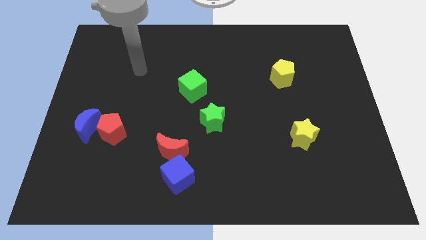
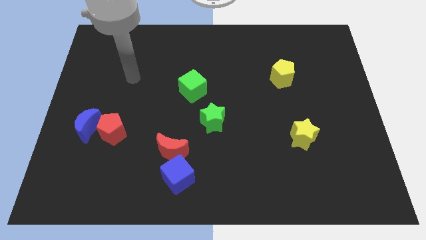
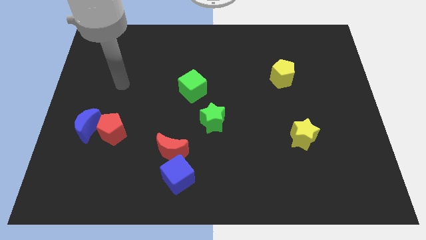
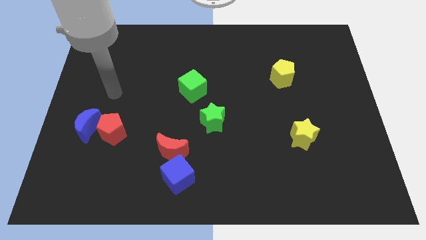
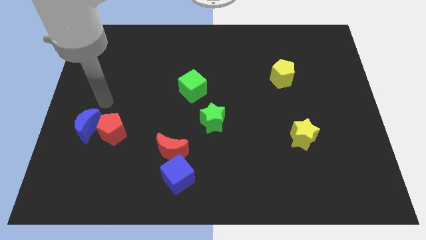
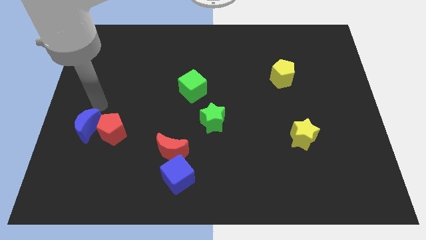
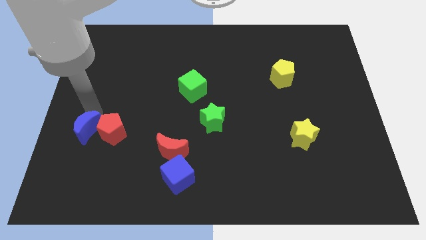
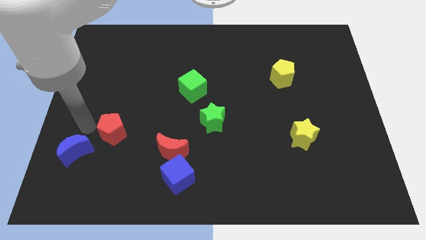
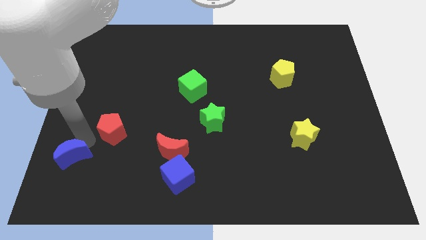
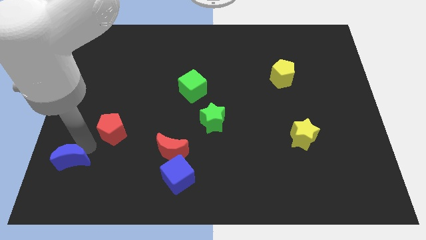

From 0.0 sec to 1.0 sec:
pull the red pentagon apart from the blue moon

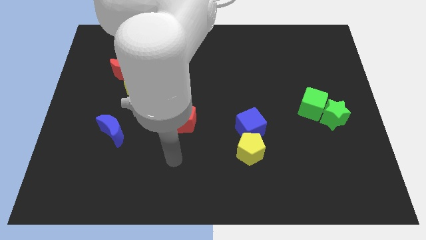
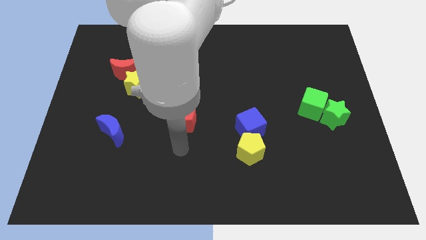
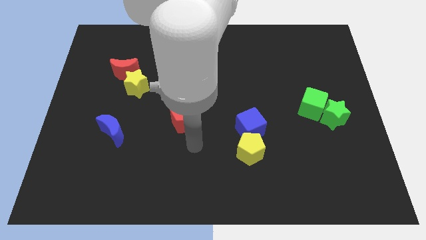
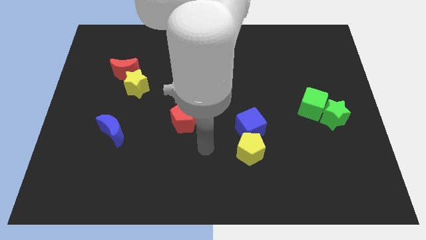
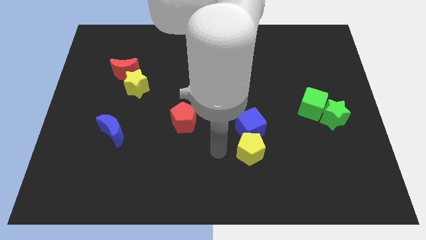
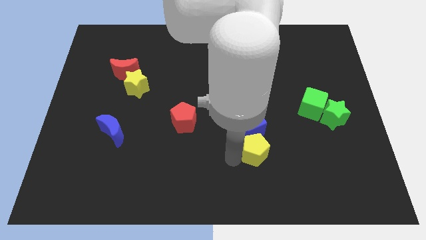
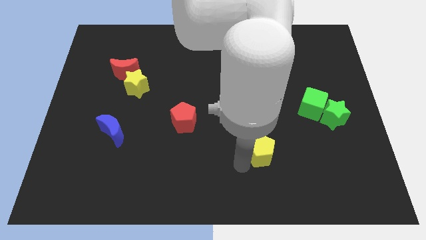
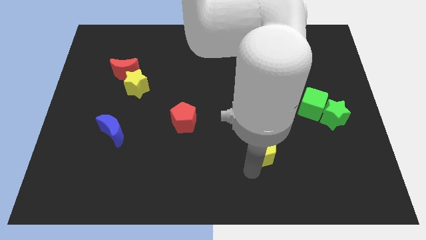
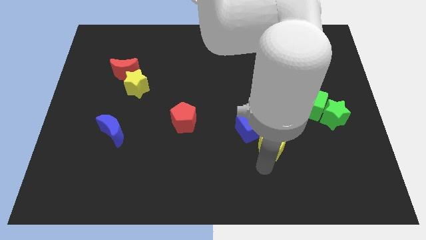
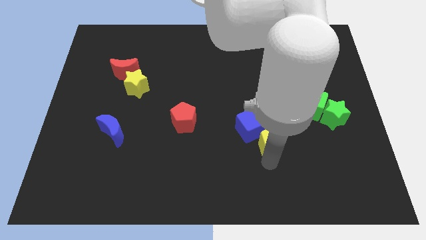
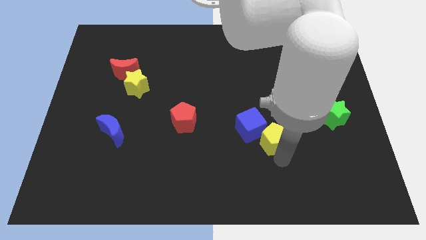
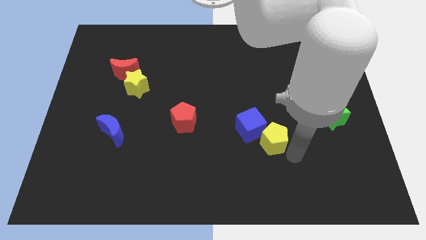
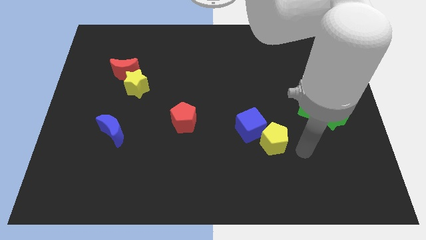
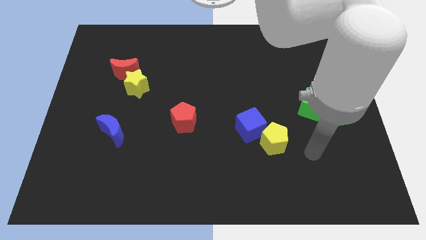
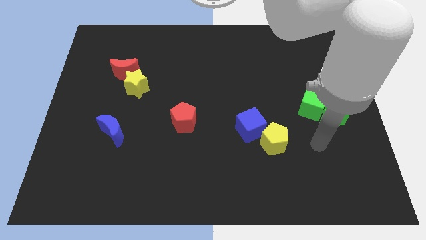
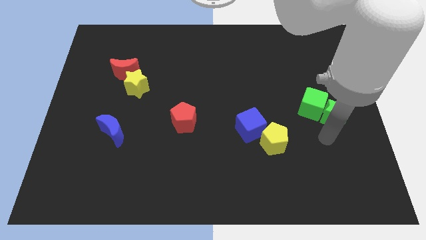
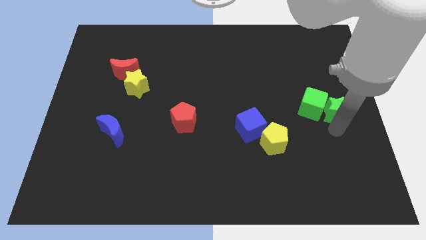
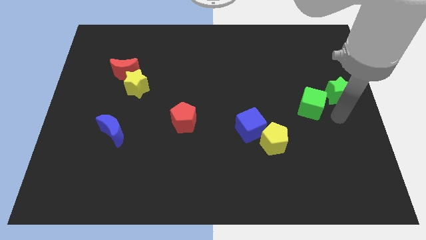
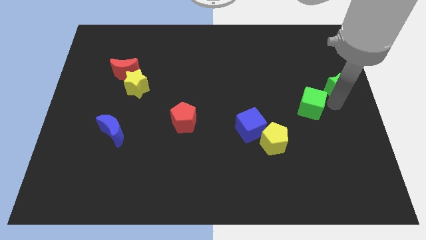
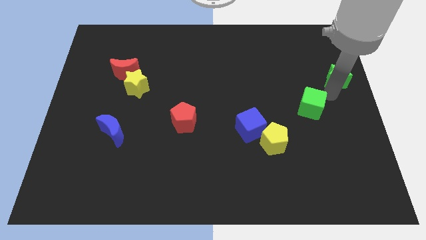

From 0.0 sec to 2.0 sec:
pull the green cube apart from the green star

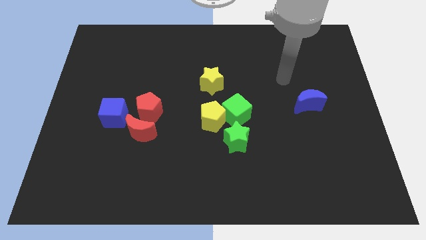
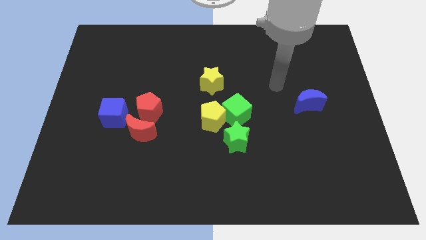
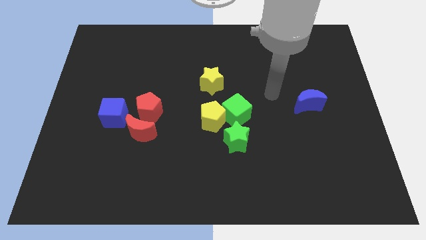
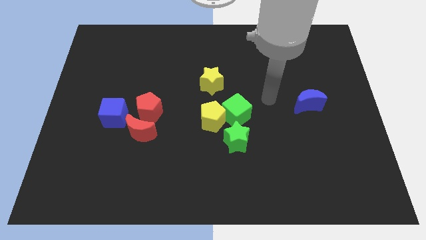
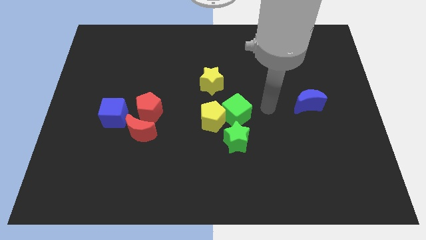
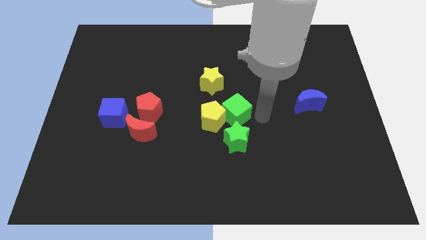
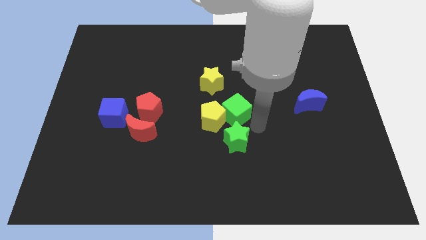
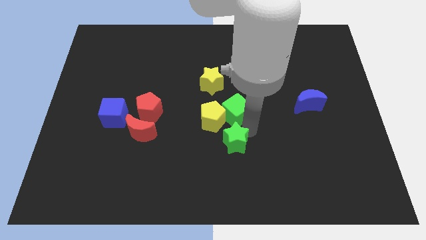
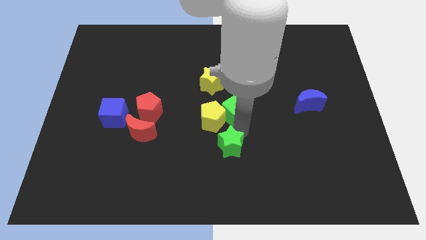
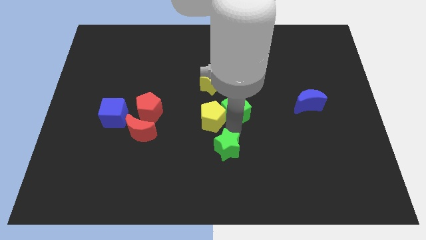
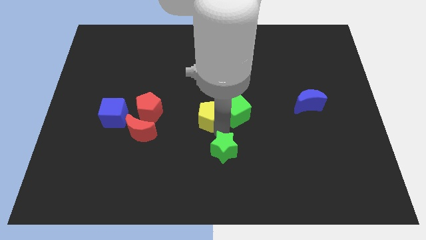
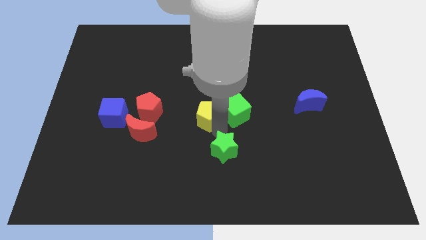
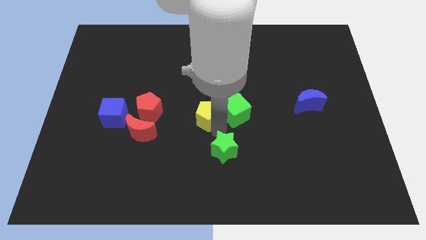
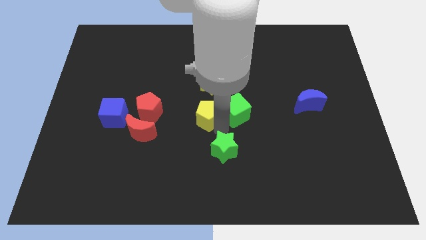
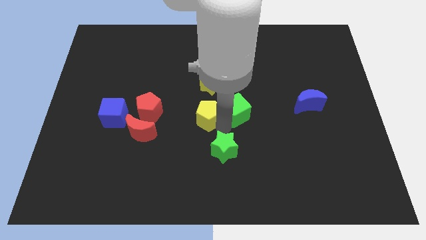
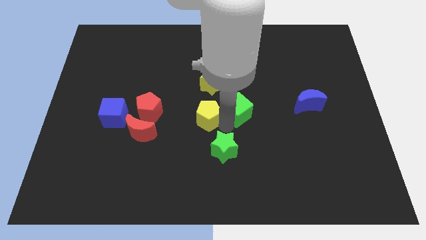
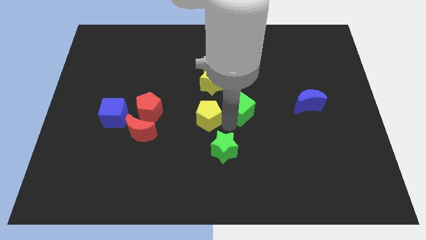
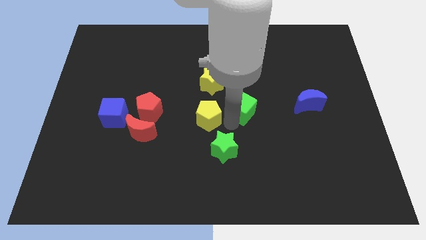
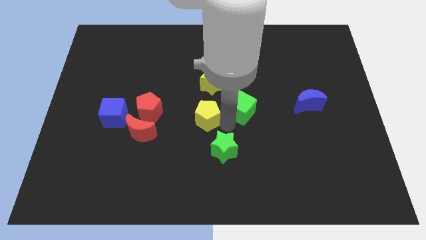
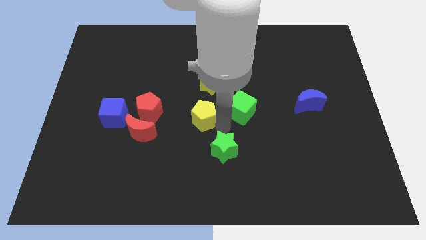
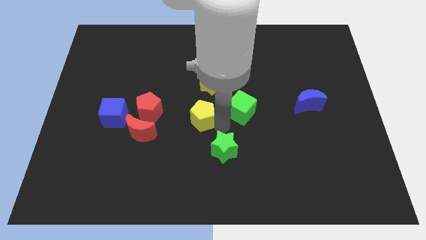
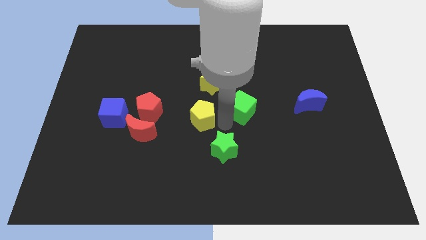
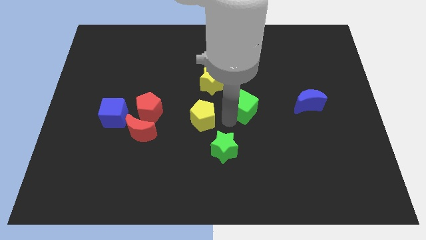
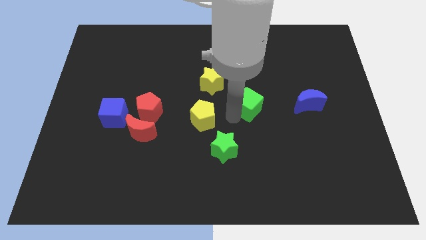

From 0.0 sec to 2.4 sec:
separate the green cube from the yellow pentagon and green star

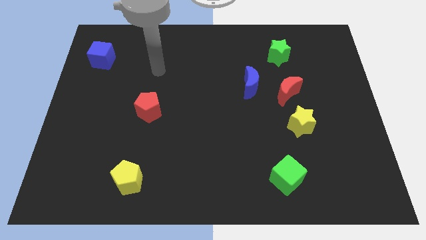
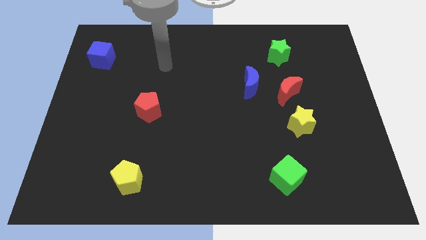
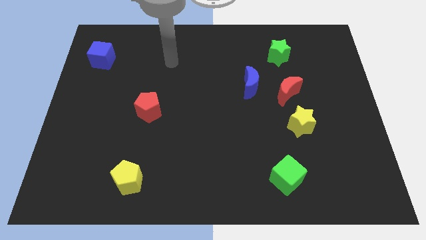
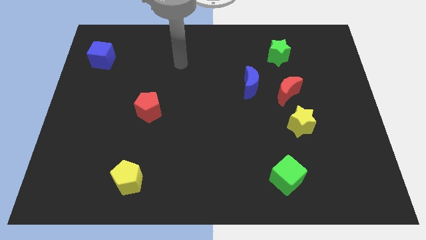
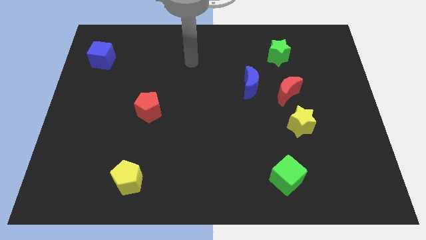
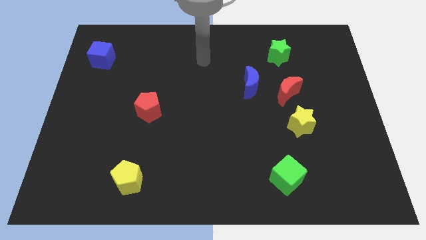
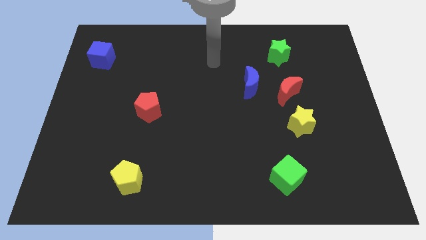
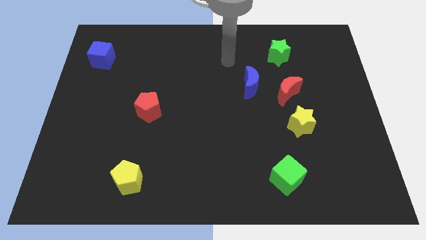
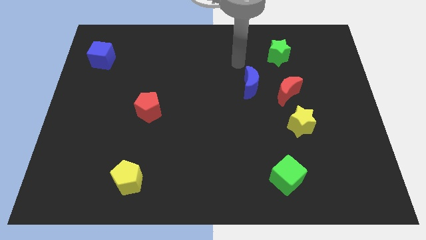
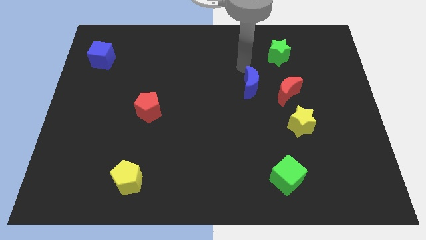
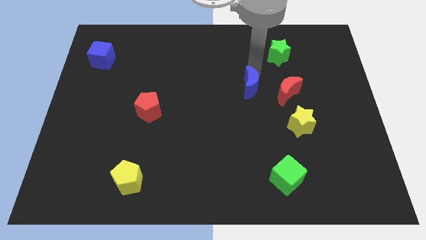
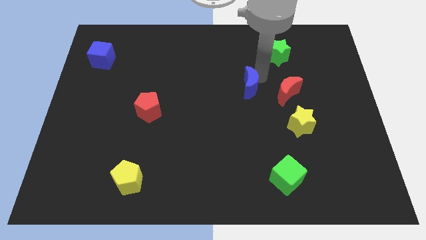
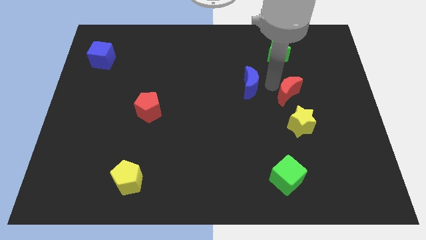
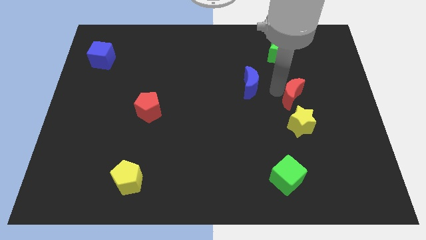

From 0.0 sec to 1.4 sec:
move the blue moon away from the red moon

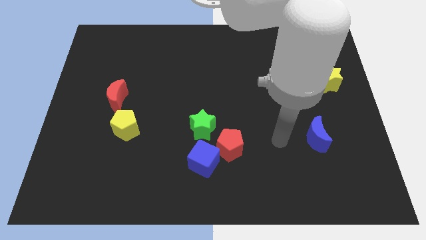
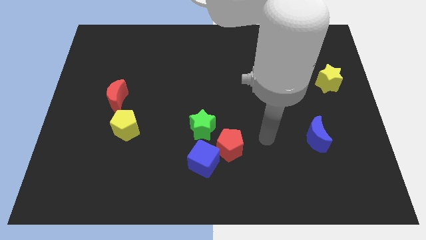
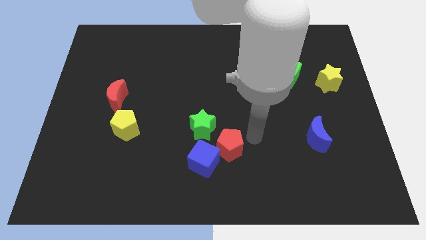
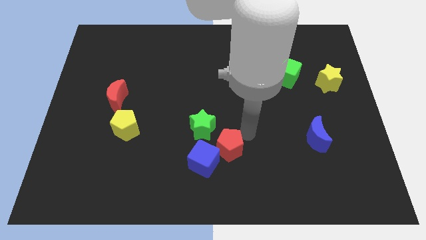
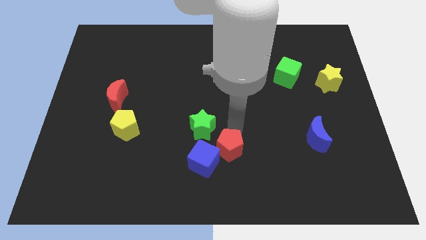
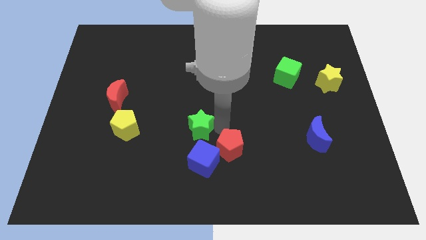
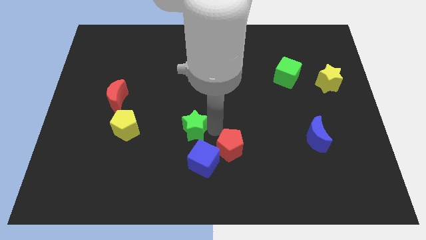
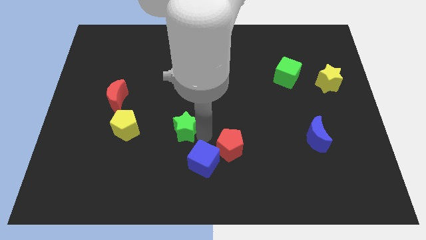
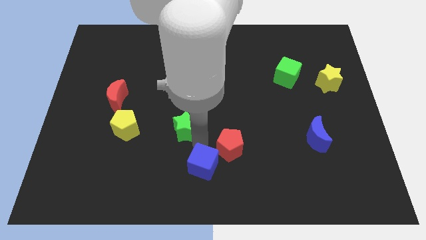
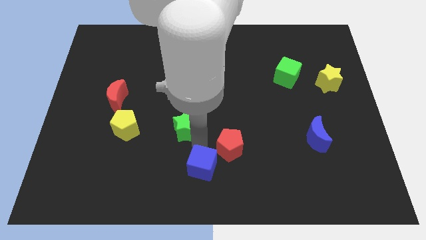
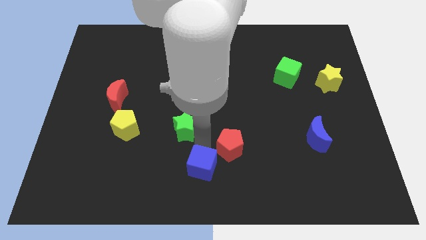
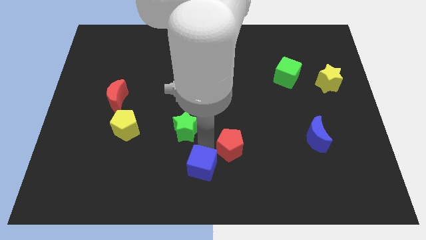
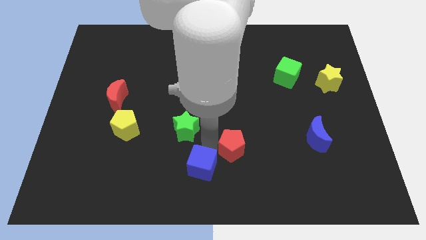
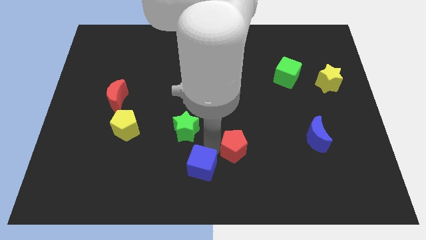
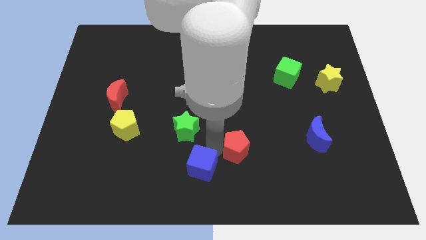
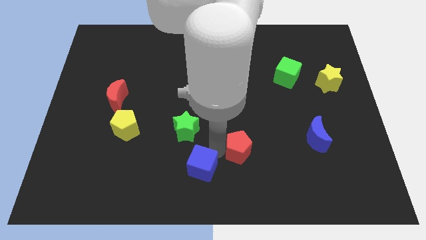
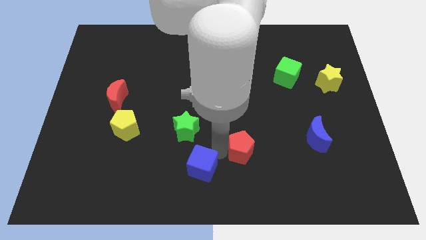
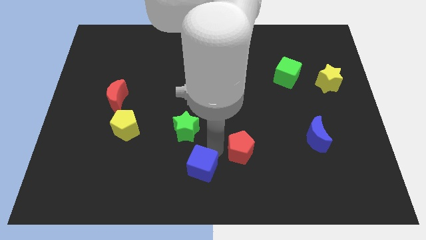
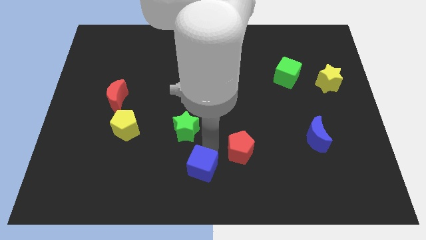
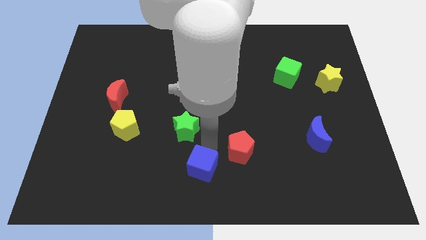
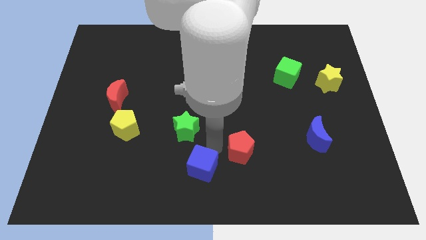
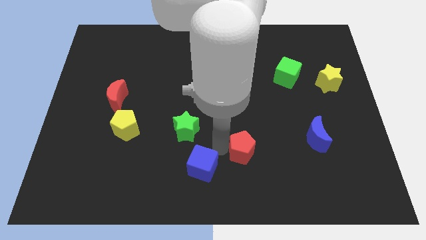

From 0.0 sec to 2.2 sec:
move the red pentagon away from the blue cube and green star

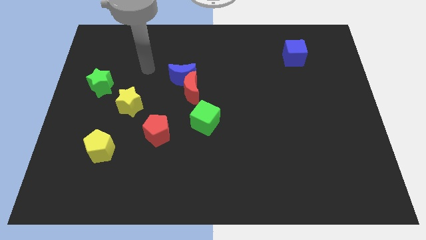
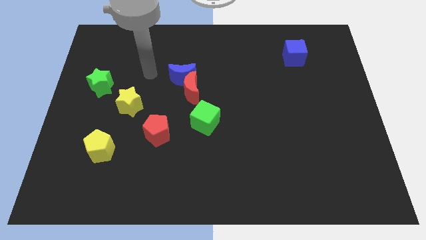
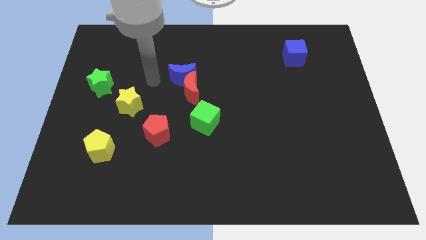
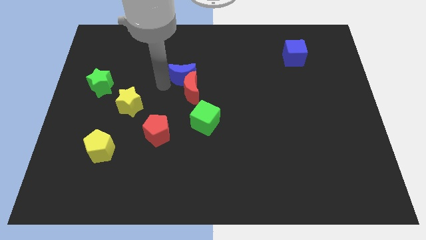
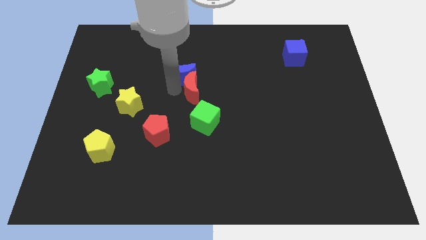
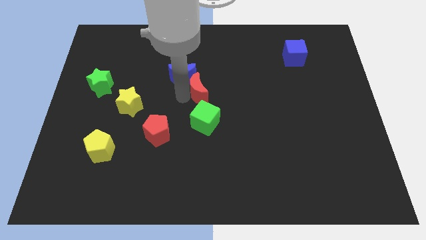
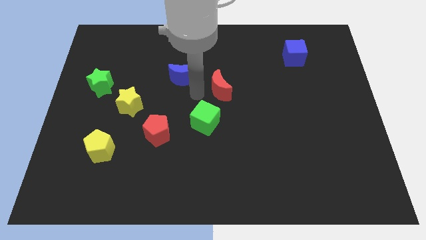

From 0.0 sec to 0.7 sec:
pull the blue moon apart from the red moon
